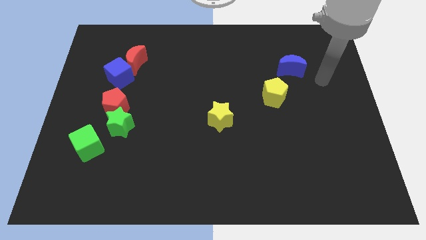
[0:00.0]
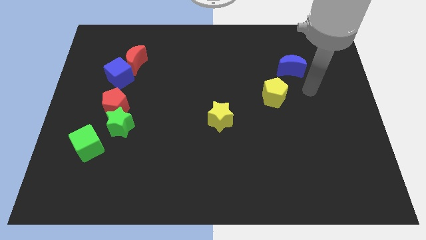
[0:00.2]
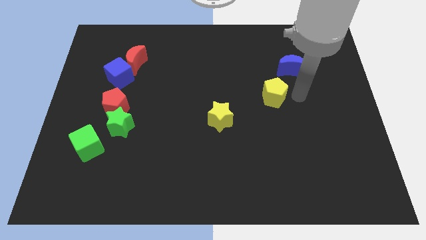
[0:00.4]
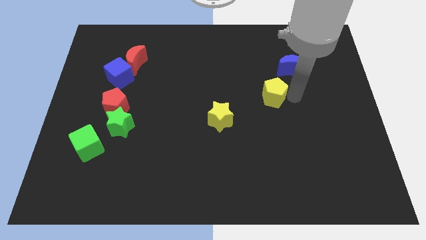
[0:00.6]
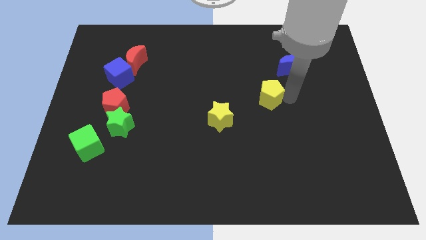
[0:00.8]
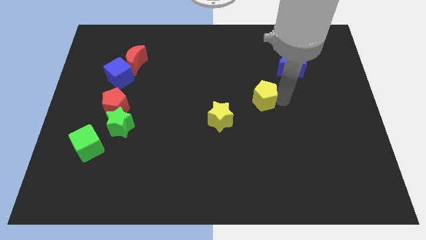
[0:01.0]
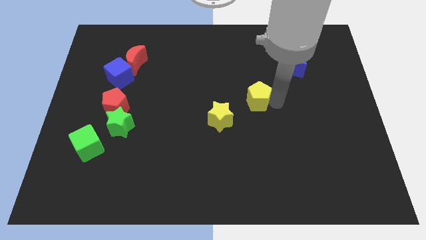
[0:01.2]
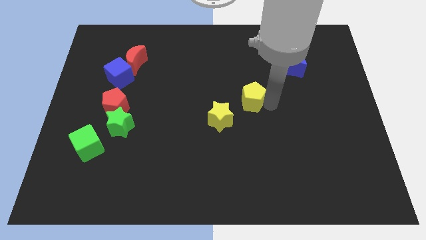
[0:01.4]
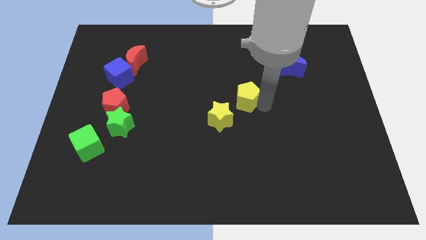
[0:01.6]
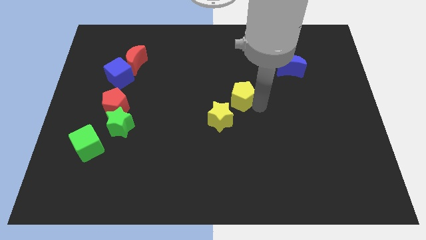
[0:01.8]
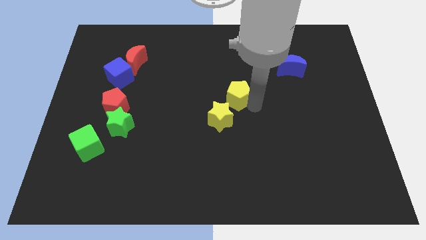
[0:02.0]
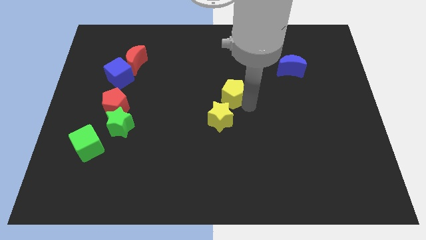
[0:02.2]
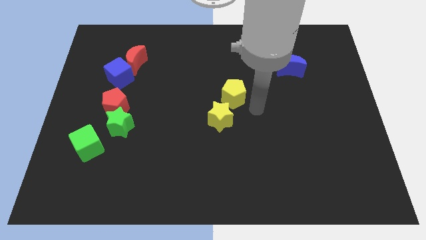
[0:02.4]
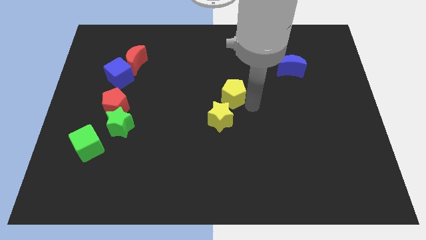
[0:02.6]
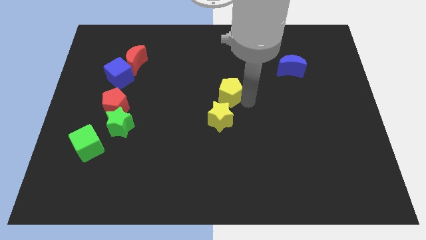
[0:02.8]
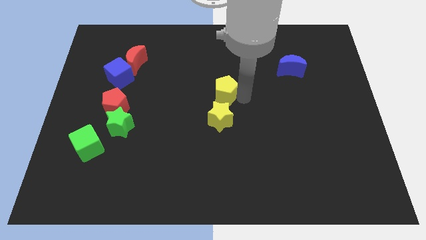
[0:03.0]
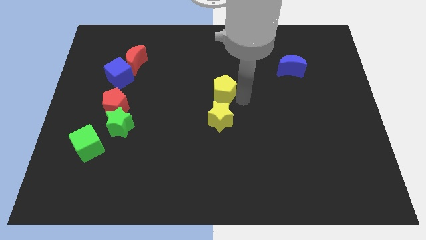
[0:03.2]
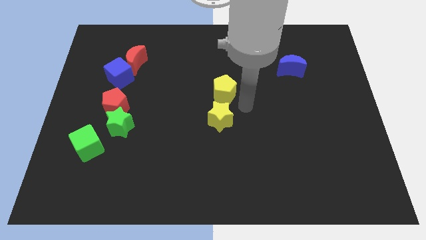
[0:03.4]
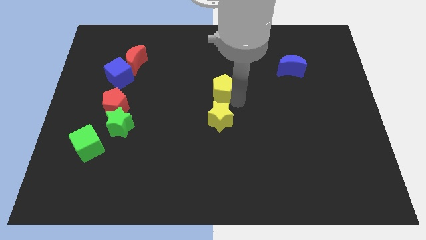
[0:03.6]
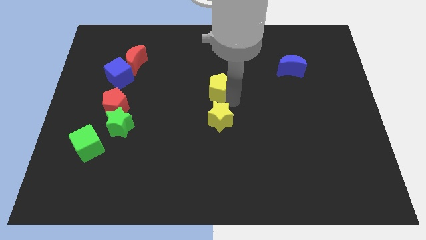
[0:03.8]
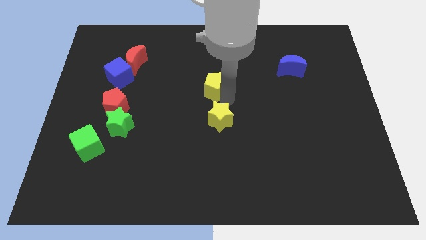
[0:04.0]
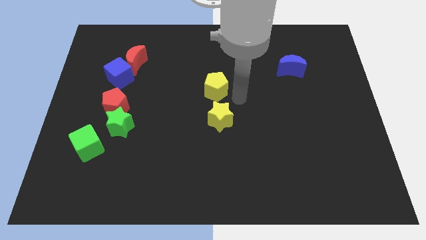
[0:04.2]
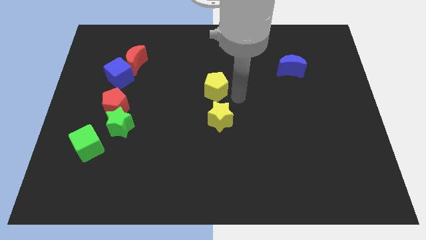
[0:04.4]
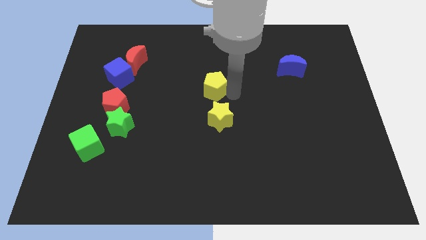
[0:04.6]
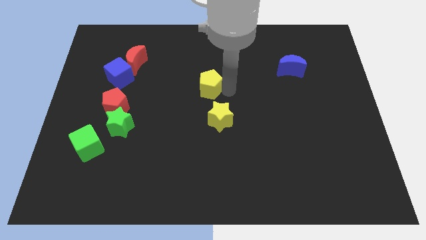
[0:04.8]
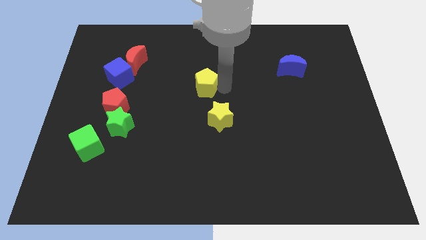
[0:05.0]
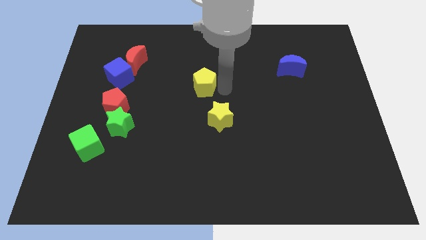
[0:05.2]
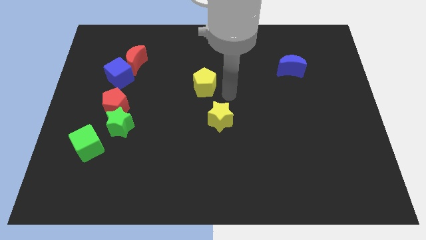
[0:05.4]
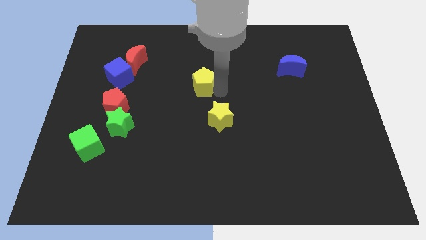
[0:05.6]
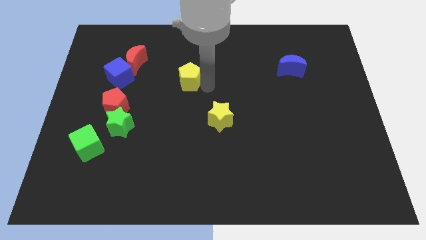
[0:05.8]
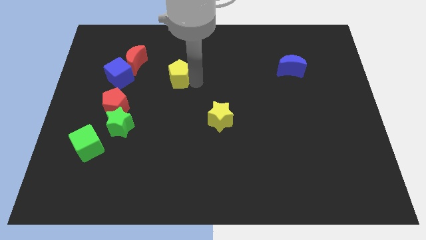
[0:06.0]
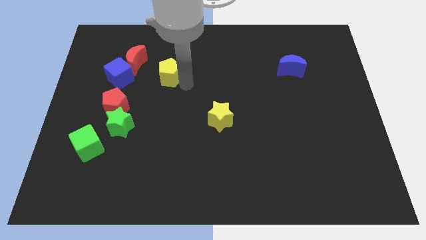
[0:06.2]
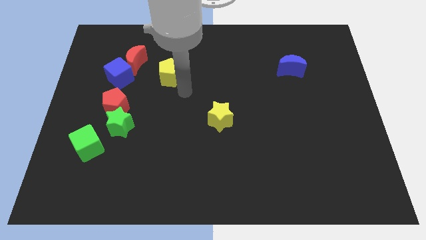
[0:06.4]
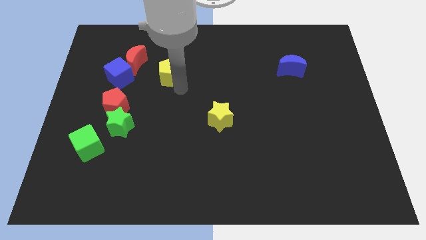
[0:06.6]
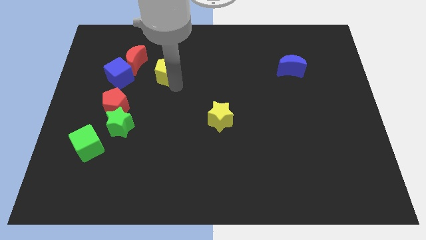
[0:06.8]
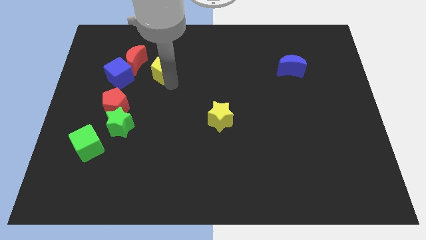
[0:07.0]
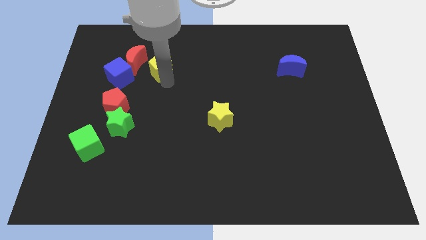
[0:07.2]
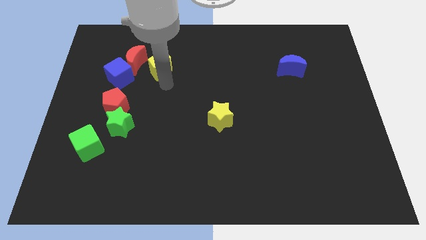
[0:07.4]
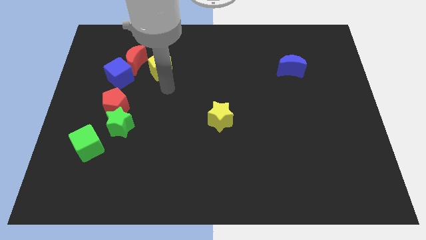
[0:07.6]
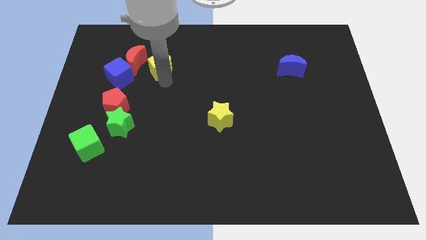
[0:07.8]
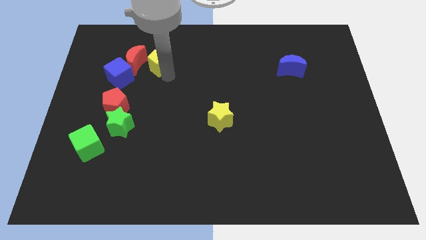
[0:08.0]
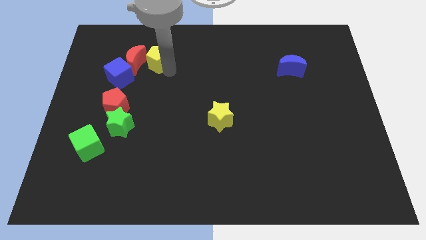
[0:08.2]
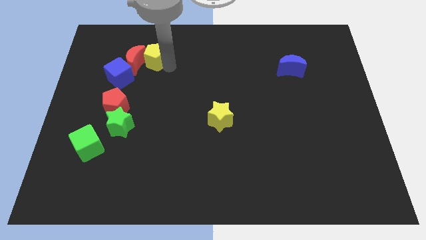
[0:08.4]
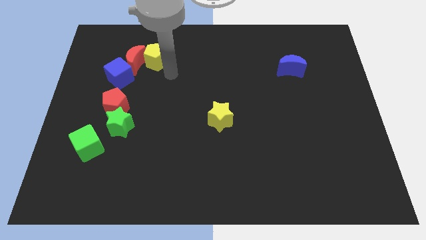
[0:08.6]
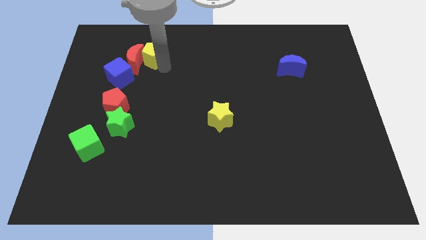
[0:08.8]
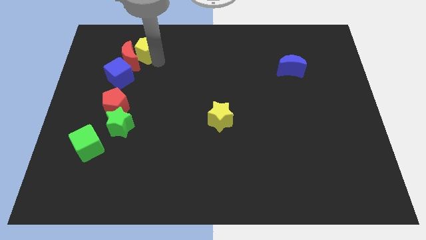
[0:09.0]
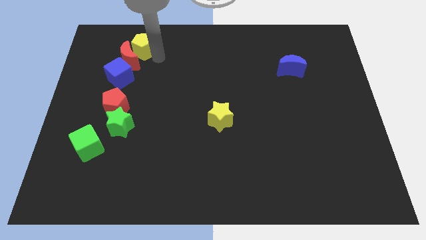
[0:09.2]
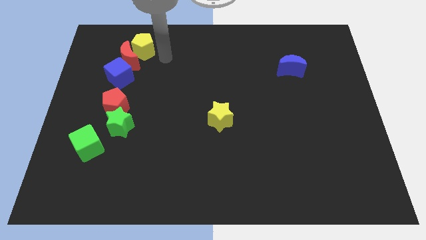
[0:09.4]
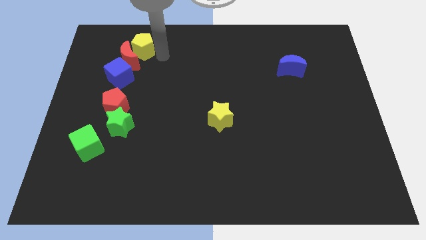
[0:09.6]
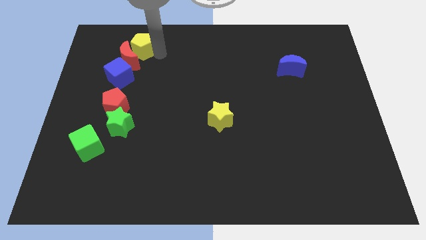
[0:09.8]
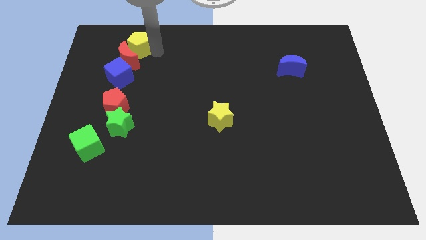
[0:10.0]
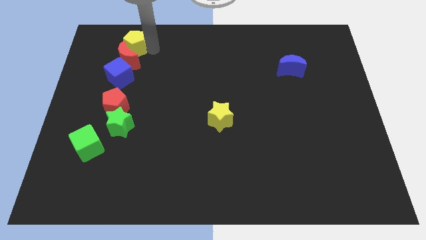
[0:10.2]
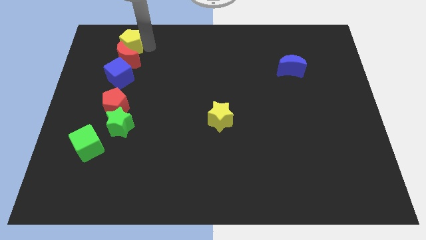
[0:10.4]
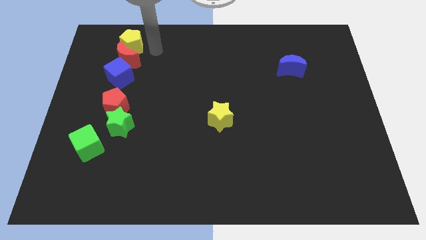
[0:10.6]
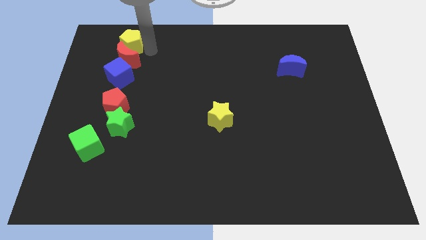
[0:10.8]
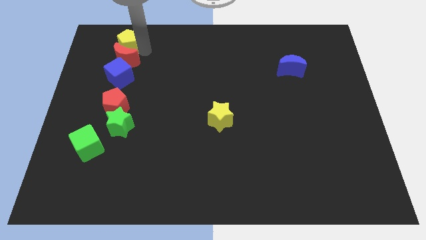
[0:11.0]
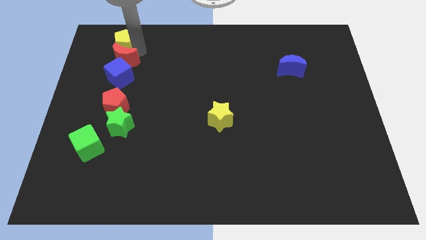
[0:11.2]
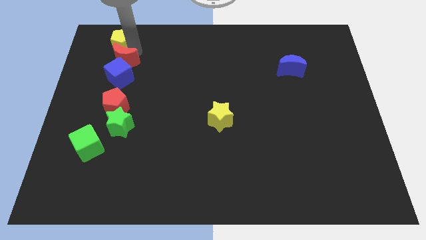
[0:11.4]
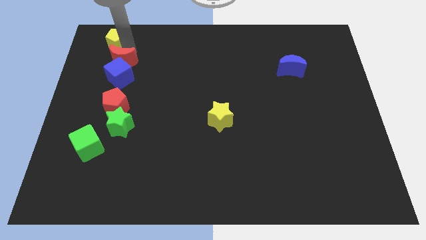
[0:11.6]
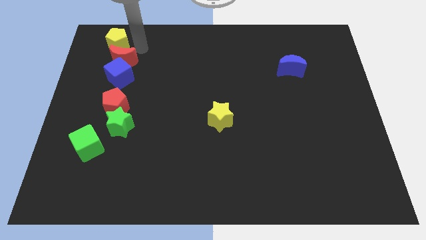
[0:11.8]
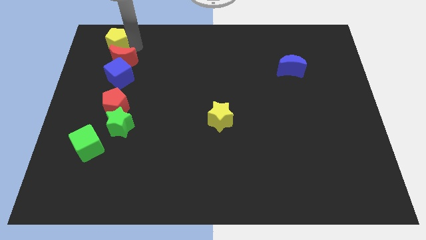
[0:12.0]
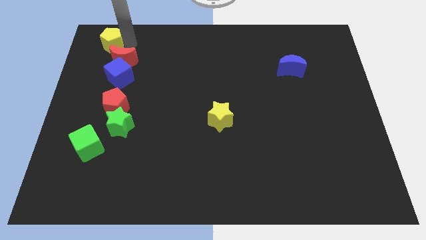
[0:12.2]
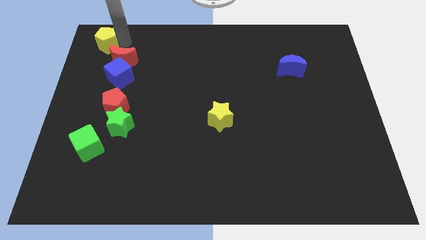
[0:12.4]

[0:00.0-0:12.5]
put the yellow pentagon to the top left of the board
